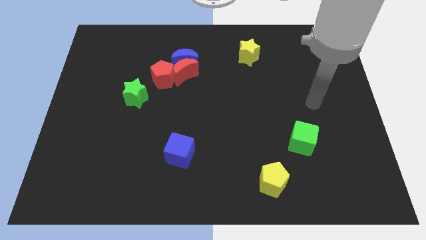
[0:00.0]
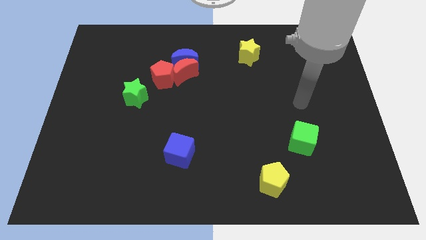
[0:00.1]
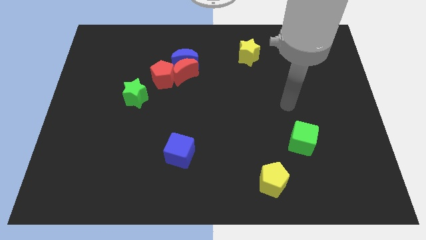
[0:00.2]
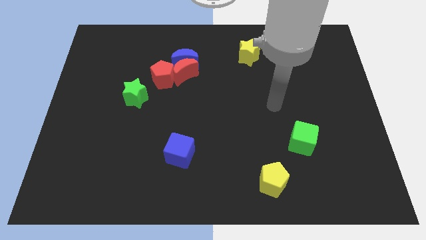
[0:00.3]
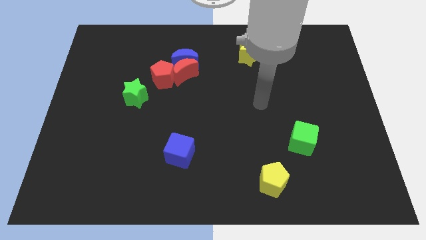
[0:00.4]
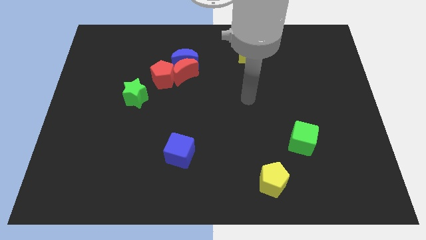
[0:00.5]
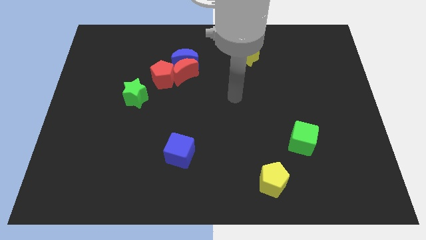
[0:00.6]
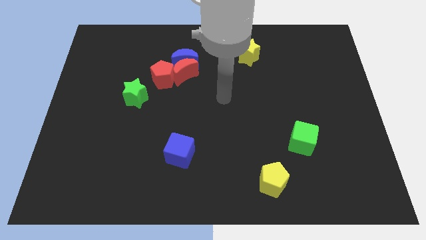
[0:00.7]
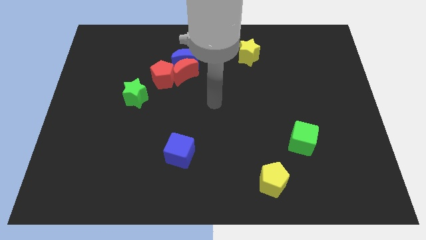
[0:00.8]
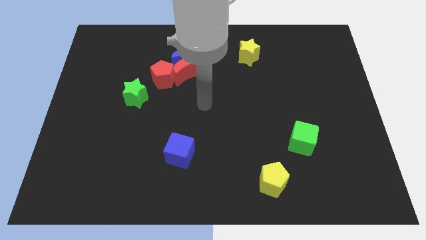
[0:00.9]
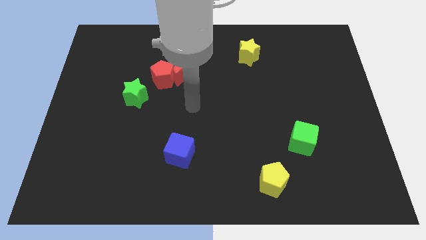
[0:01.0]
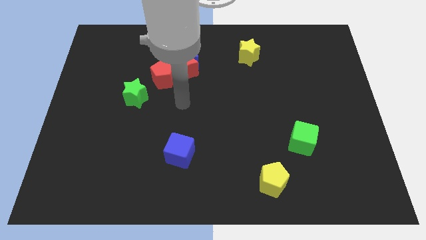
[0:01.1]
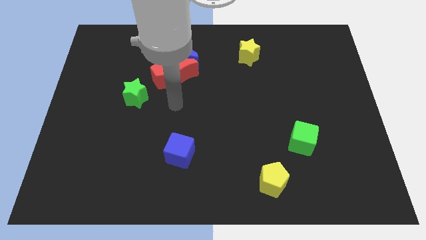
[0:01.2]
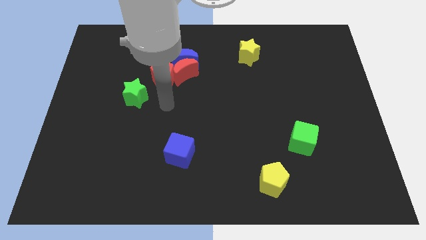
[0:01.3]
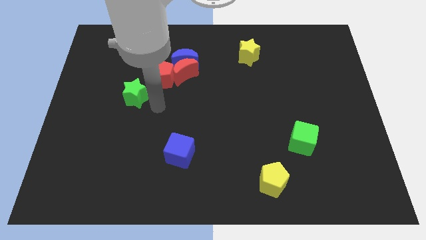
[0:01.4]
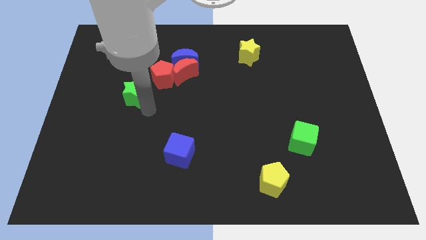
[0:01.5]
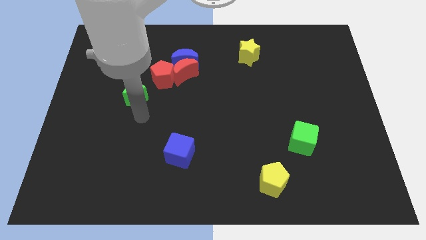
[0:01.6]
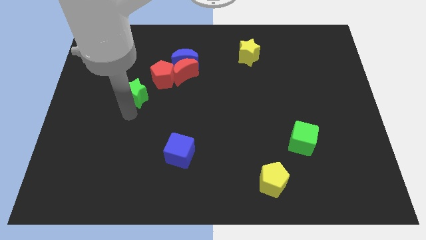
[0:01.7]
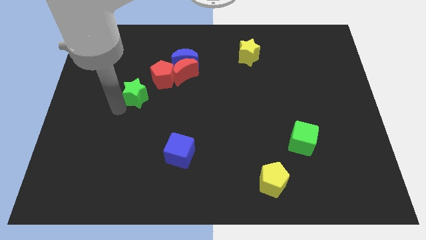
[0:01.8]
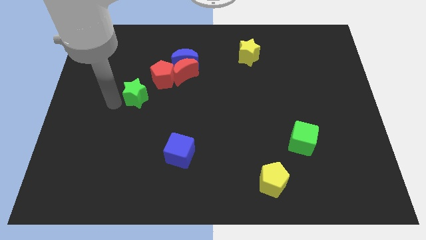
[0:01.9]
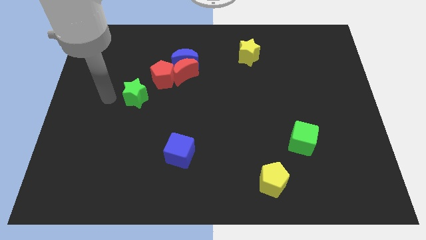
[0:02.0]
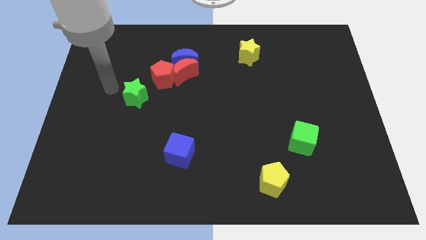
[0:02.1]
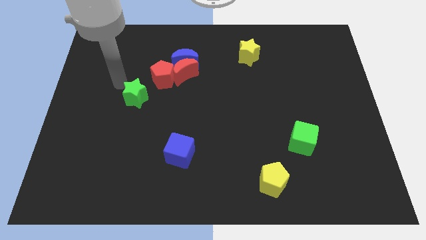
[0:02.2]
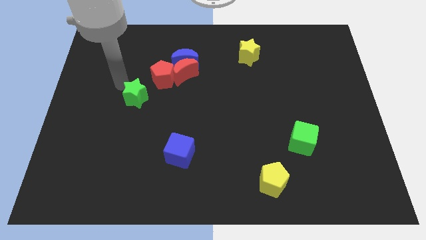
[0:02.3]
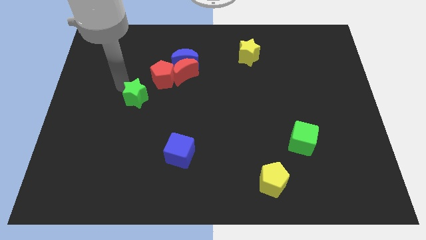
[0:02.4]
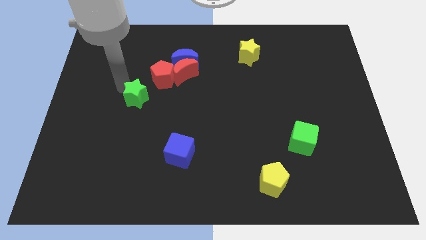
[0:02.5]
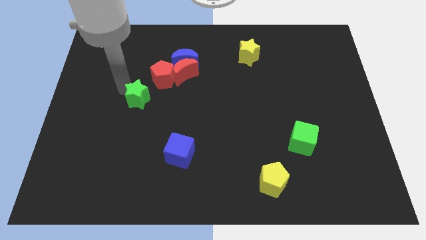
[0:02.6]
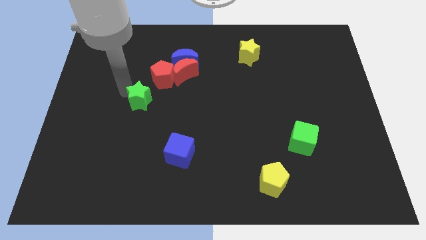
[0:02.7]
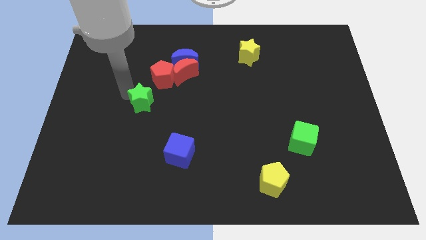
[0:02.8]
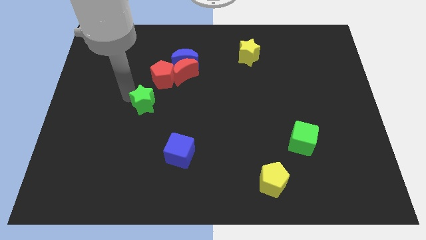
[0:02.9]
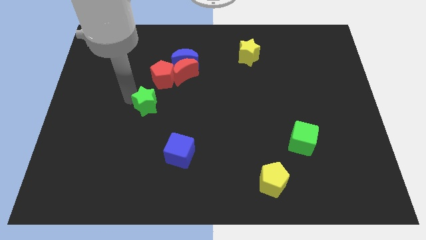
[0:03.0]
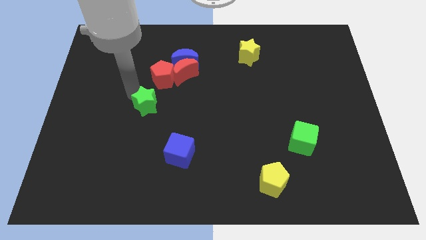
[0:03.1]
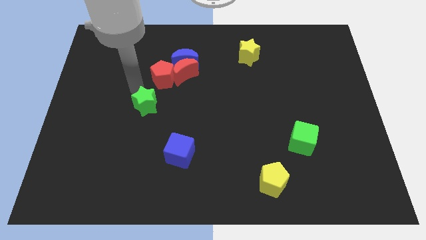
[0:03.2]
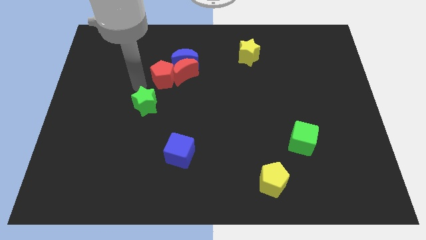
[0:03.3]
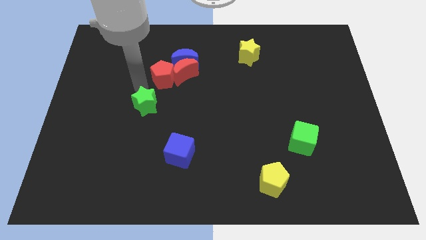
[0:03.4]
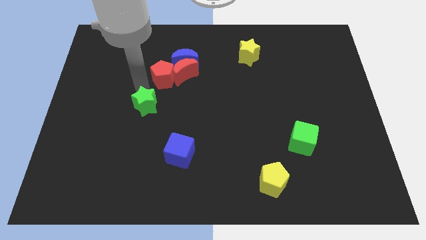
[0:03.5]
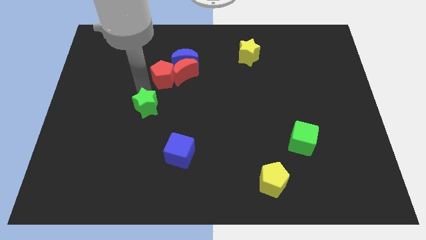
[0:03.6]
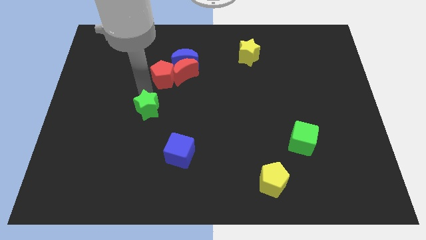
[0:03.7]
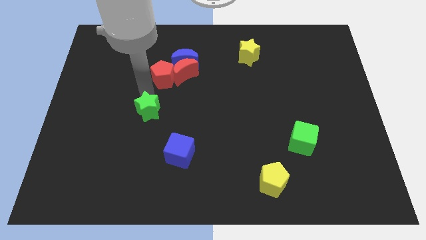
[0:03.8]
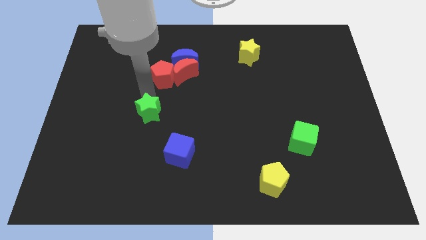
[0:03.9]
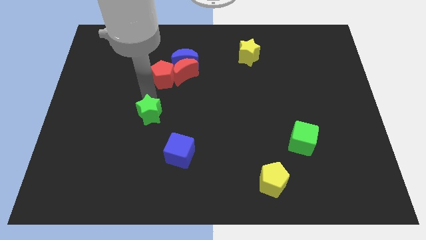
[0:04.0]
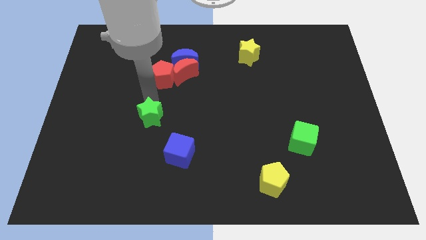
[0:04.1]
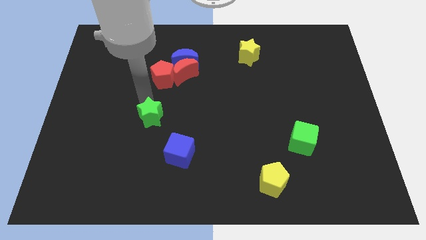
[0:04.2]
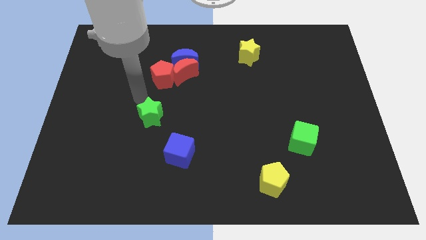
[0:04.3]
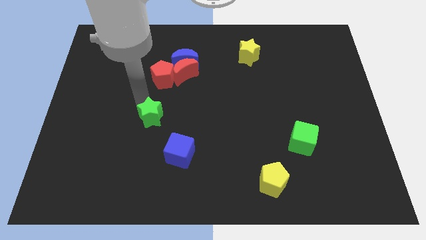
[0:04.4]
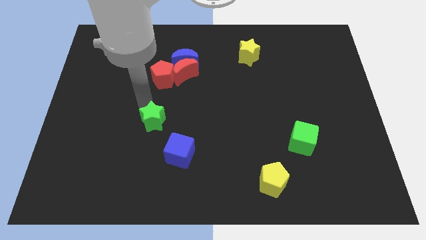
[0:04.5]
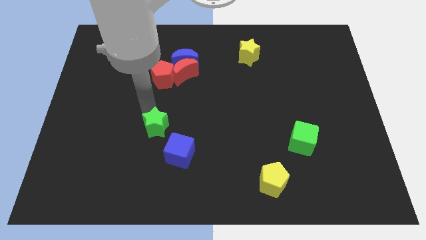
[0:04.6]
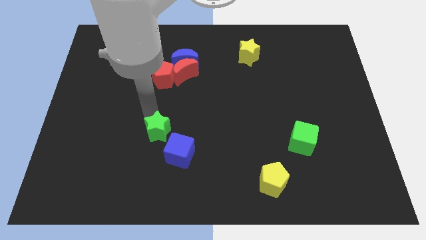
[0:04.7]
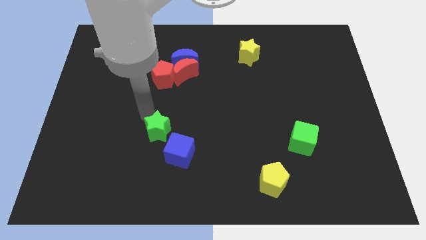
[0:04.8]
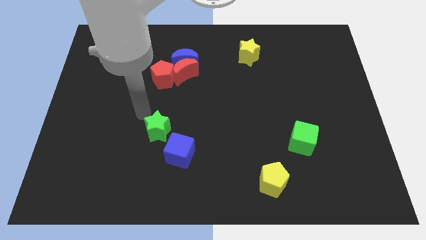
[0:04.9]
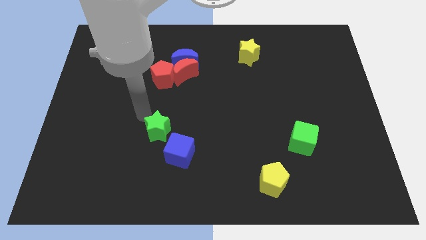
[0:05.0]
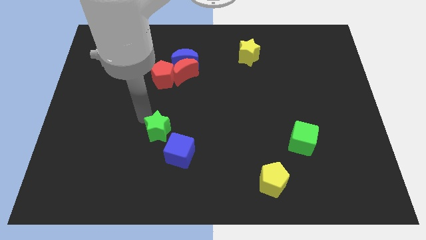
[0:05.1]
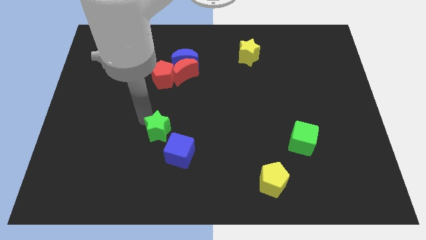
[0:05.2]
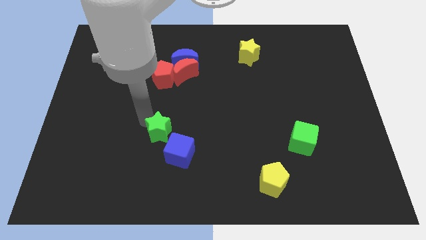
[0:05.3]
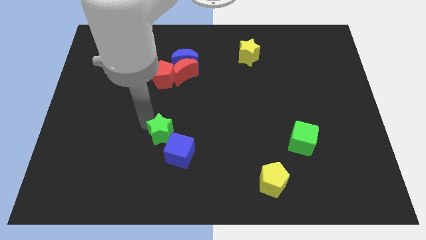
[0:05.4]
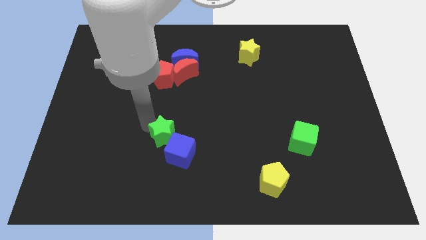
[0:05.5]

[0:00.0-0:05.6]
push the green star to the blue cube

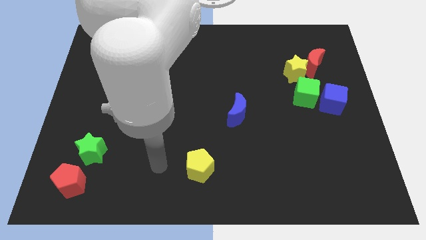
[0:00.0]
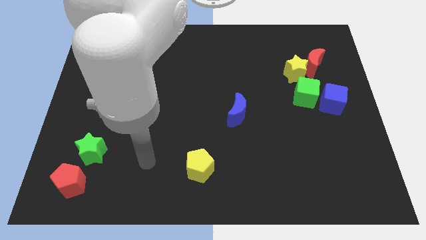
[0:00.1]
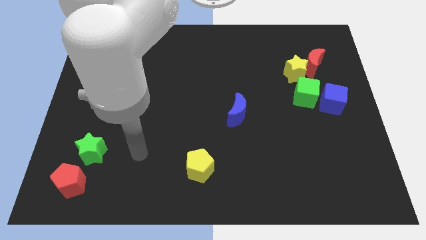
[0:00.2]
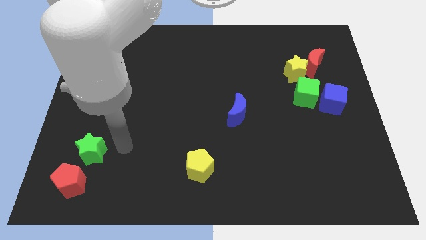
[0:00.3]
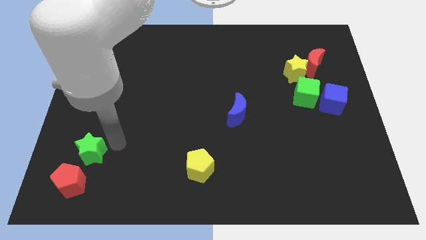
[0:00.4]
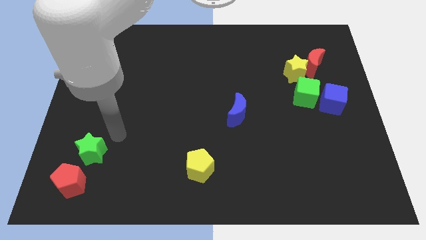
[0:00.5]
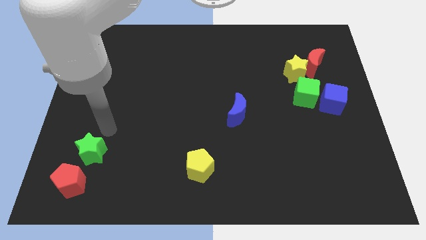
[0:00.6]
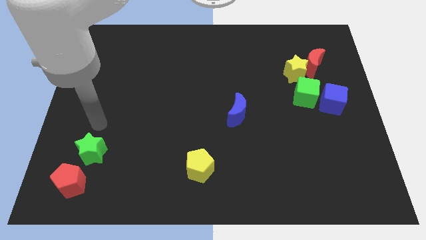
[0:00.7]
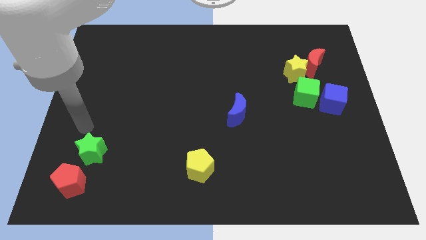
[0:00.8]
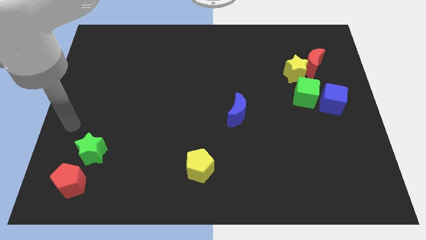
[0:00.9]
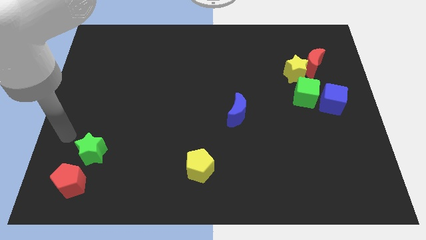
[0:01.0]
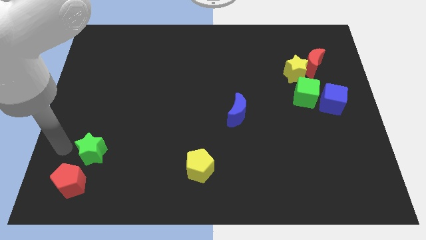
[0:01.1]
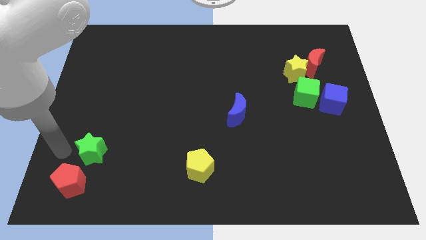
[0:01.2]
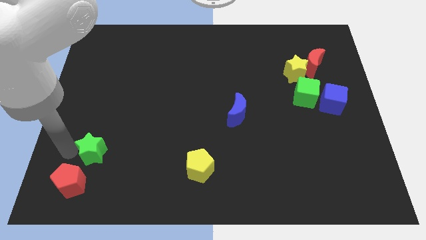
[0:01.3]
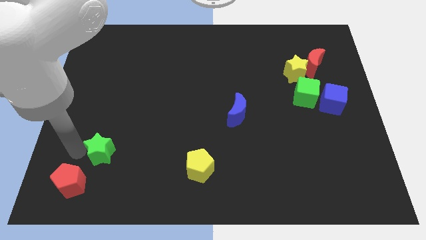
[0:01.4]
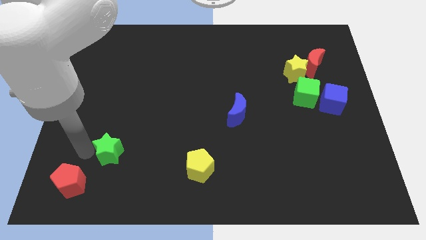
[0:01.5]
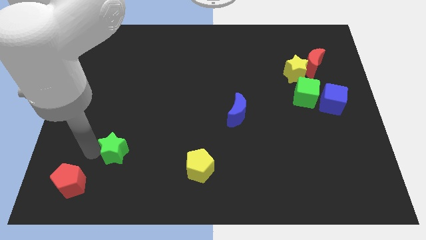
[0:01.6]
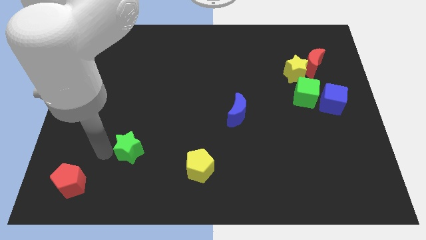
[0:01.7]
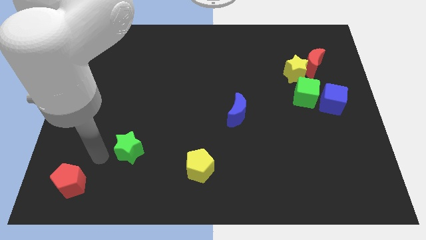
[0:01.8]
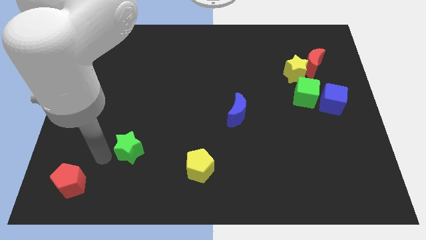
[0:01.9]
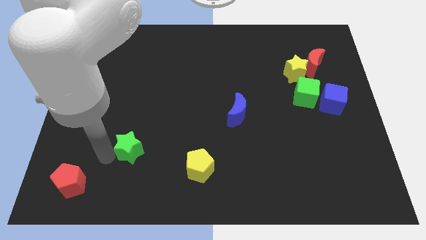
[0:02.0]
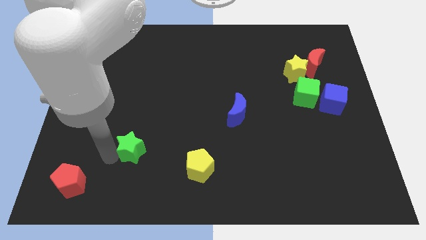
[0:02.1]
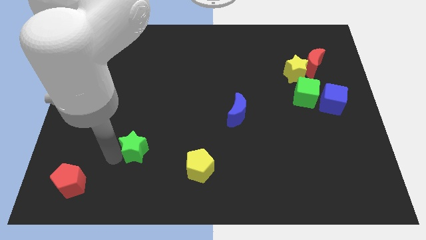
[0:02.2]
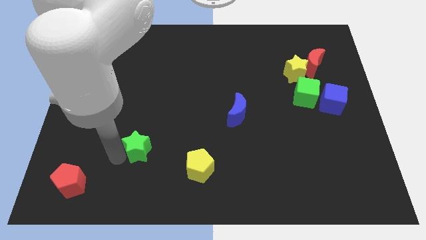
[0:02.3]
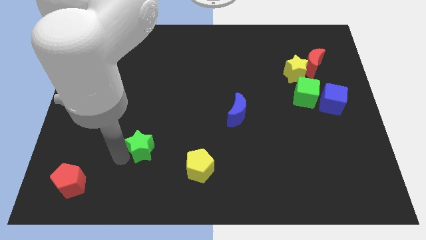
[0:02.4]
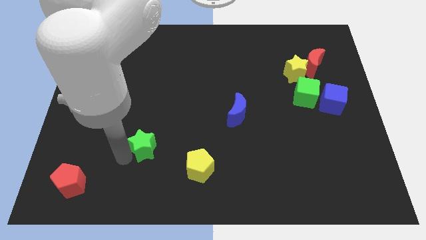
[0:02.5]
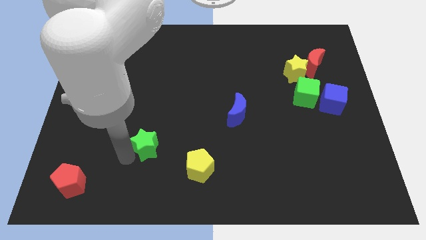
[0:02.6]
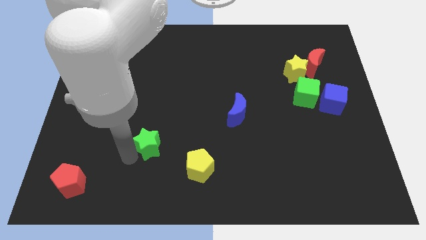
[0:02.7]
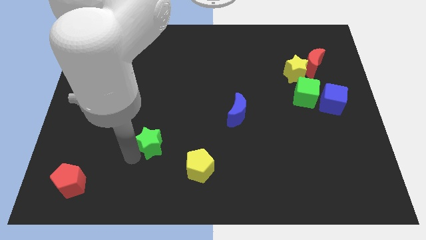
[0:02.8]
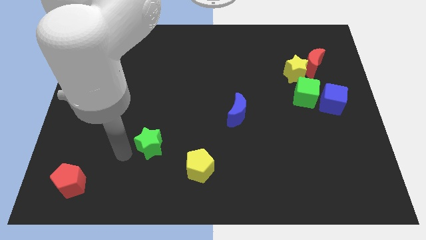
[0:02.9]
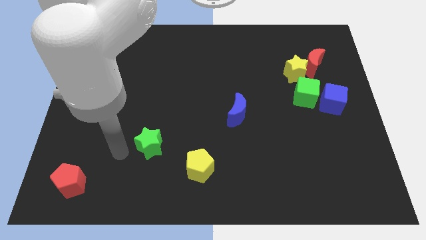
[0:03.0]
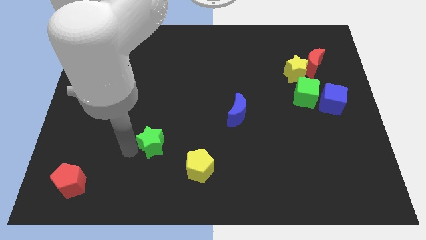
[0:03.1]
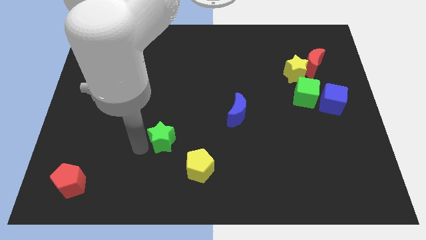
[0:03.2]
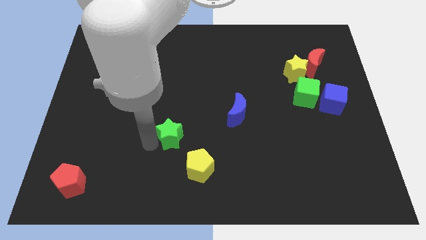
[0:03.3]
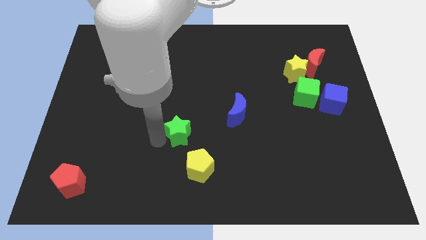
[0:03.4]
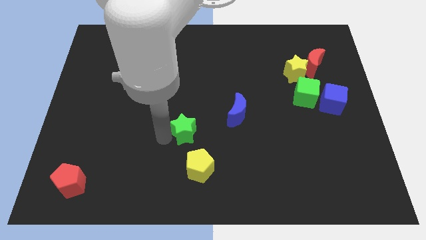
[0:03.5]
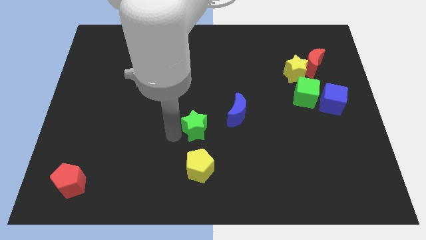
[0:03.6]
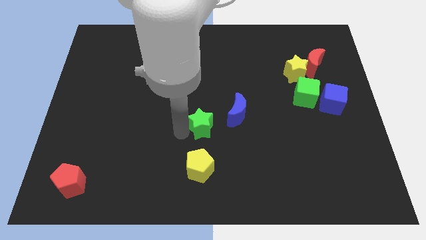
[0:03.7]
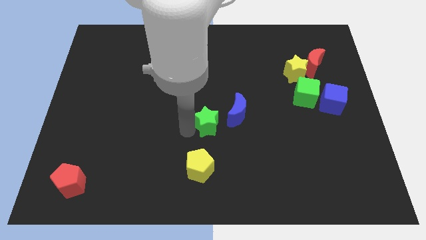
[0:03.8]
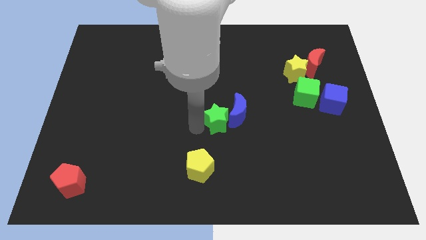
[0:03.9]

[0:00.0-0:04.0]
move the green star next to the blue moon
